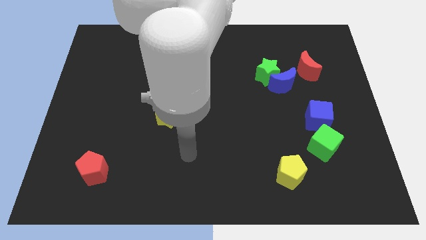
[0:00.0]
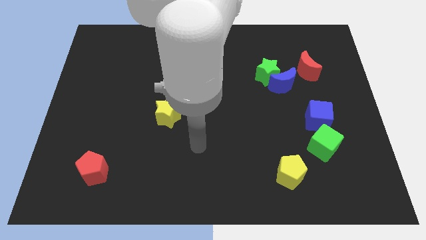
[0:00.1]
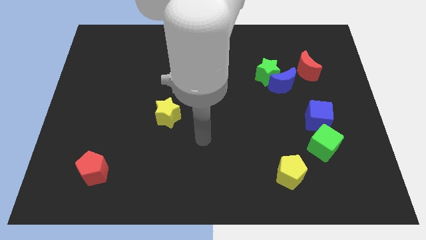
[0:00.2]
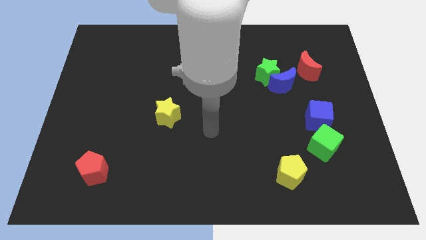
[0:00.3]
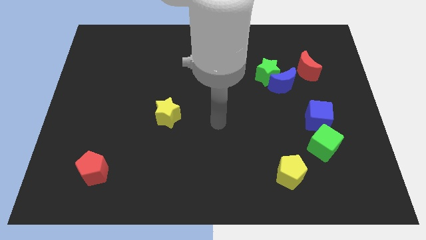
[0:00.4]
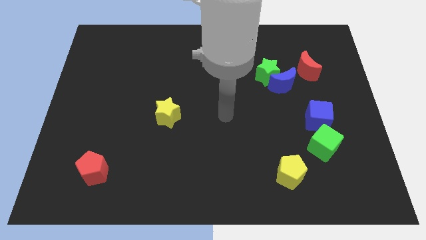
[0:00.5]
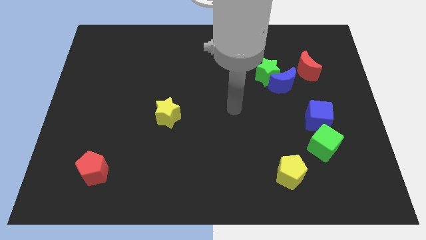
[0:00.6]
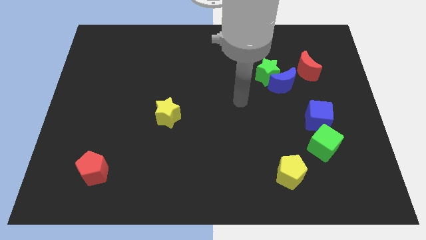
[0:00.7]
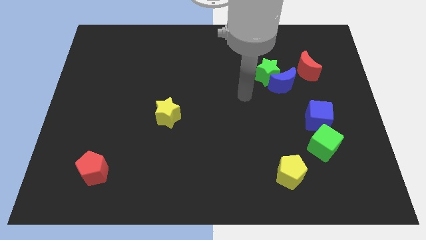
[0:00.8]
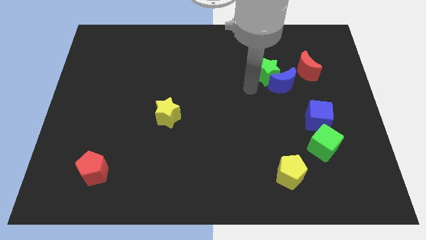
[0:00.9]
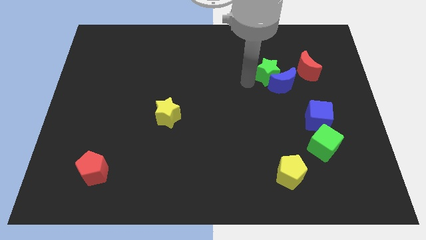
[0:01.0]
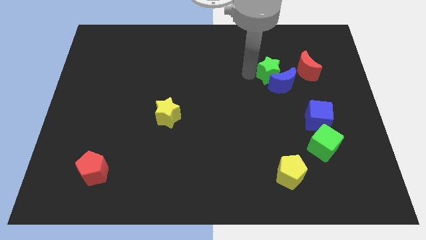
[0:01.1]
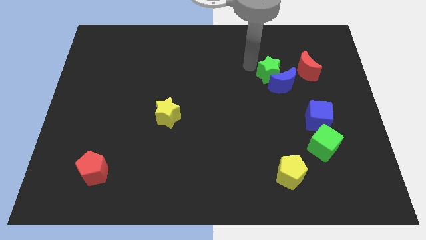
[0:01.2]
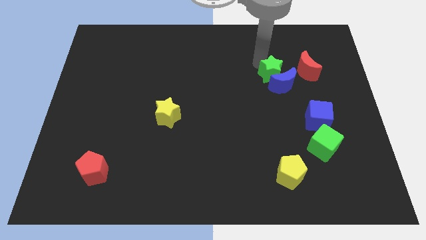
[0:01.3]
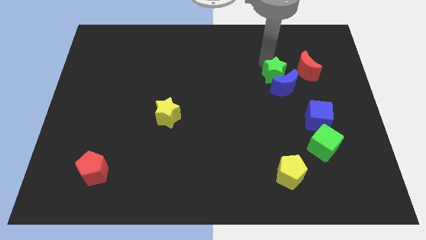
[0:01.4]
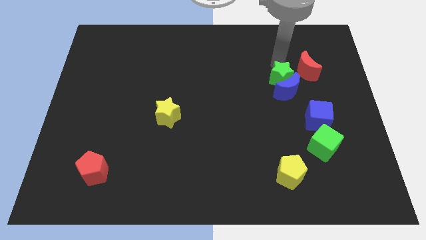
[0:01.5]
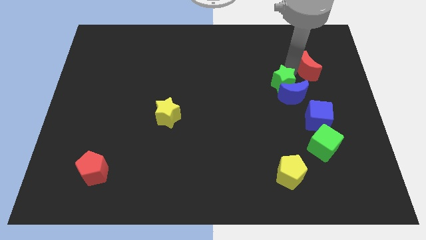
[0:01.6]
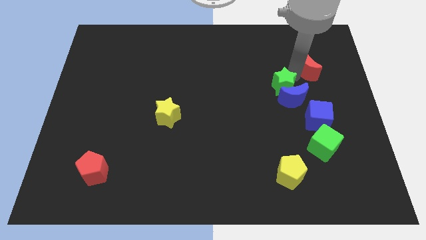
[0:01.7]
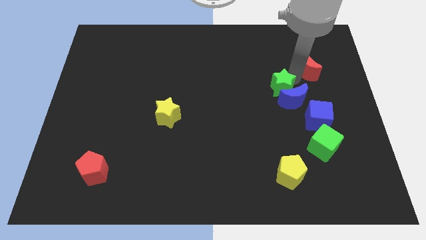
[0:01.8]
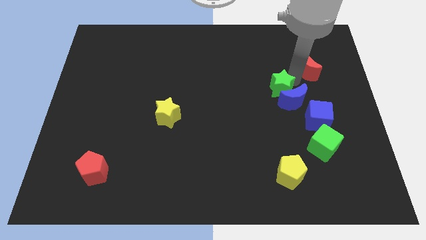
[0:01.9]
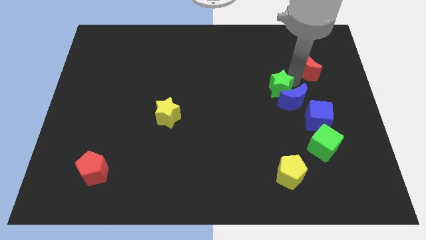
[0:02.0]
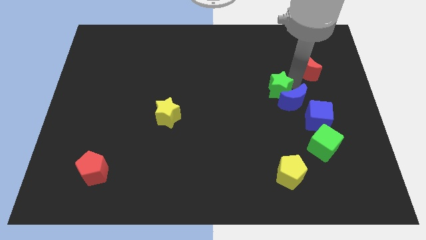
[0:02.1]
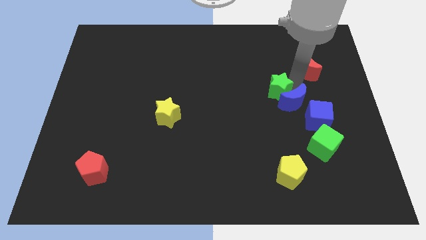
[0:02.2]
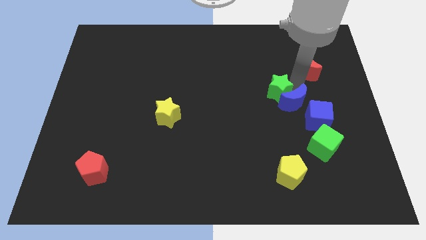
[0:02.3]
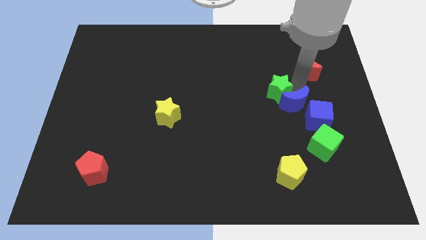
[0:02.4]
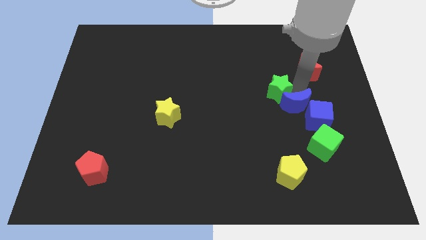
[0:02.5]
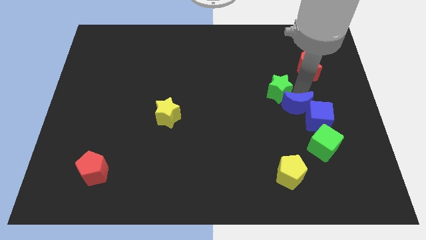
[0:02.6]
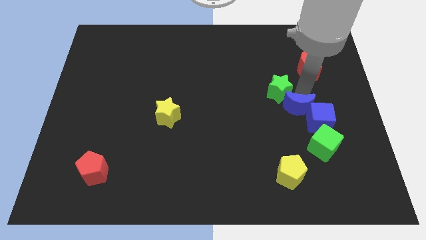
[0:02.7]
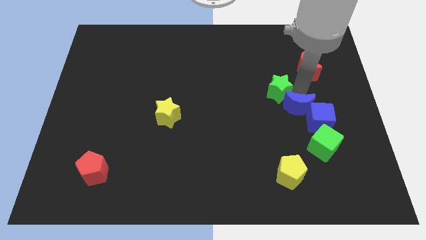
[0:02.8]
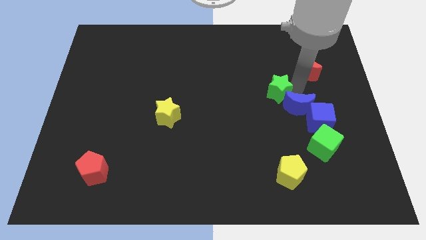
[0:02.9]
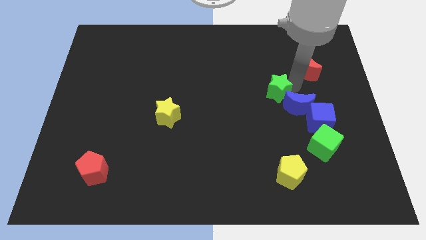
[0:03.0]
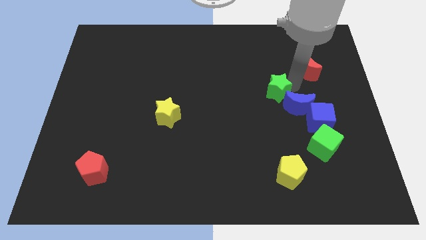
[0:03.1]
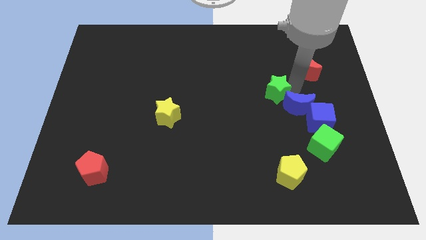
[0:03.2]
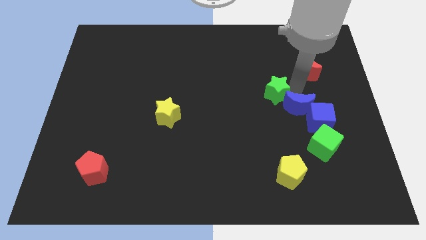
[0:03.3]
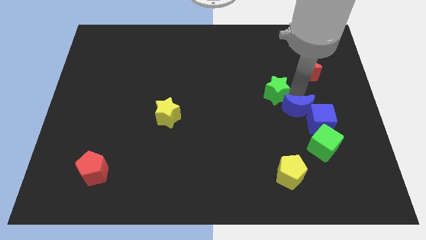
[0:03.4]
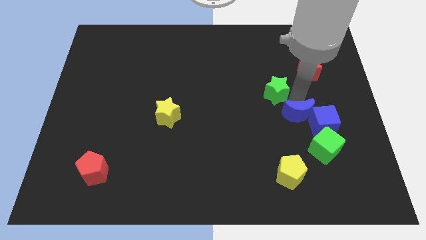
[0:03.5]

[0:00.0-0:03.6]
pull the blue moon apart from the green star and red moon

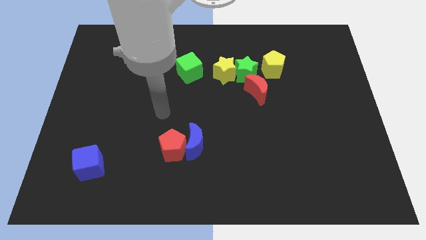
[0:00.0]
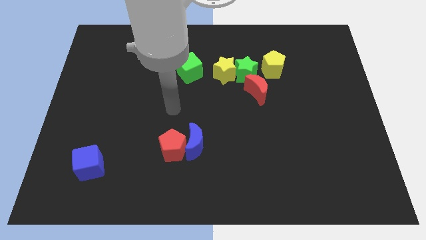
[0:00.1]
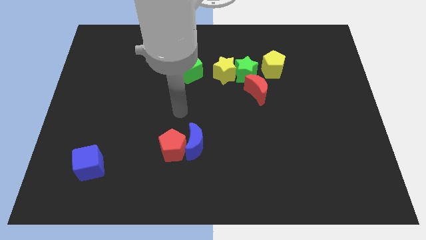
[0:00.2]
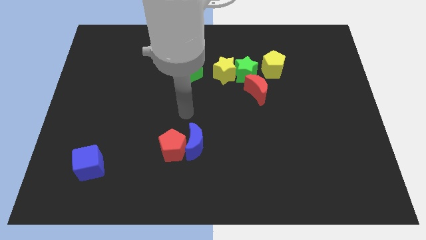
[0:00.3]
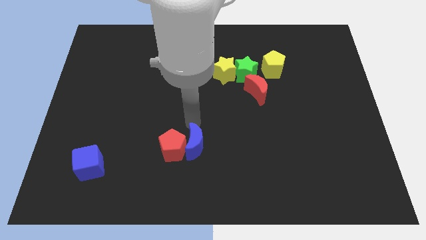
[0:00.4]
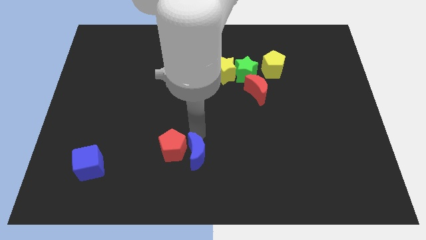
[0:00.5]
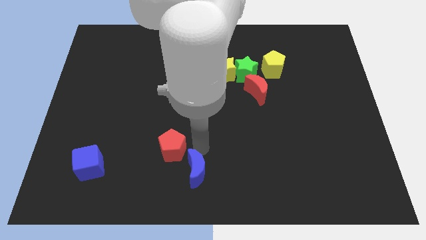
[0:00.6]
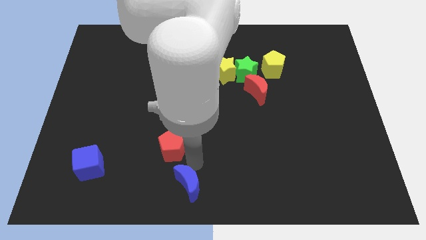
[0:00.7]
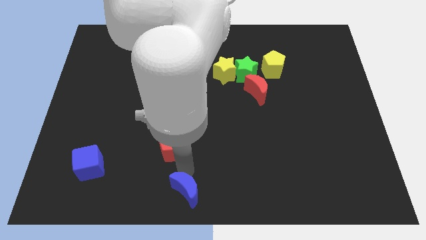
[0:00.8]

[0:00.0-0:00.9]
move the red pentagon away from the blue moon

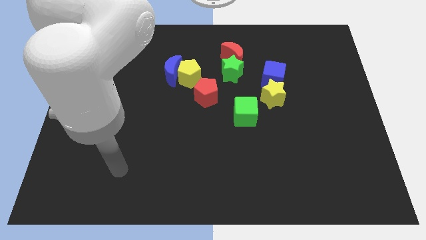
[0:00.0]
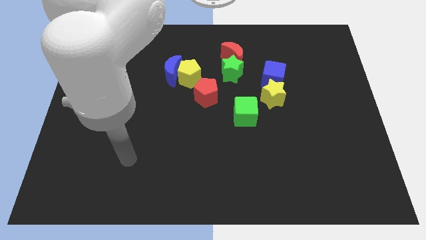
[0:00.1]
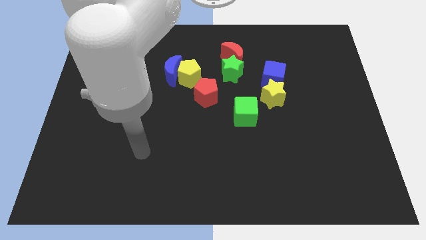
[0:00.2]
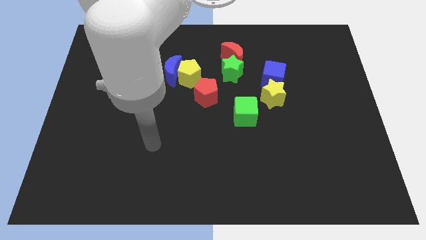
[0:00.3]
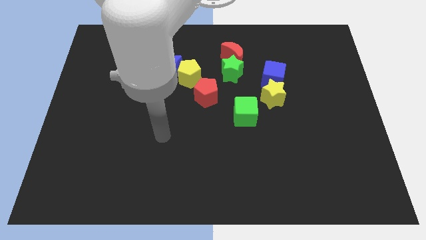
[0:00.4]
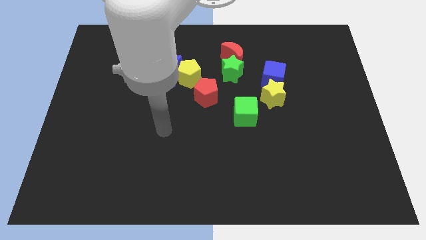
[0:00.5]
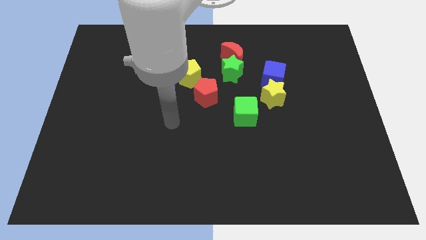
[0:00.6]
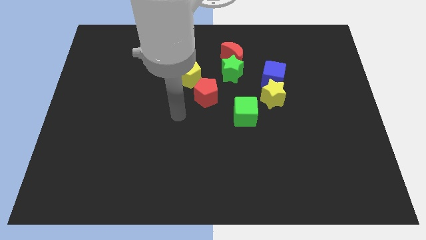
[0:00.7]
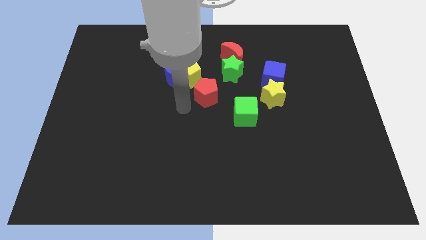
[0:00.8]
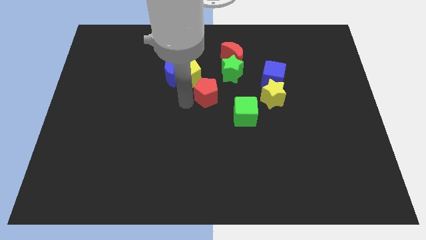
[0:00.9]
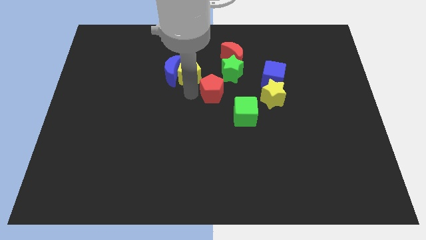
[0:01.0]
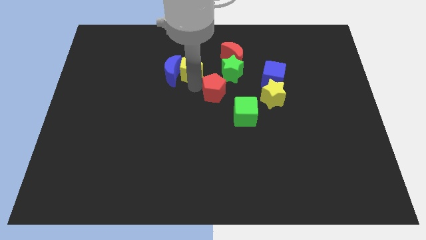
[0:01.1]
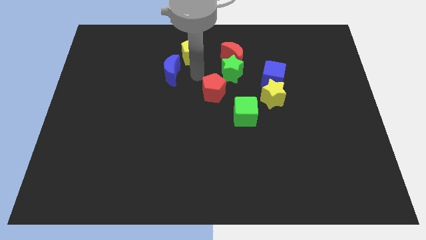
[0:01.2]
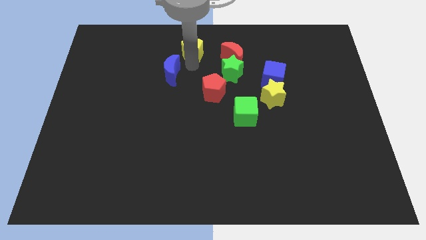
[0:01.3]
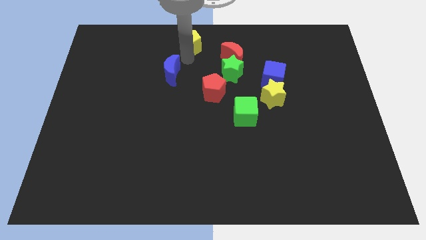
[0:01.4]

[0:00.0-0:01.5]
move the blue moon away from the yellow pentagon

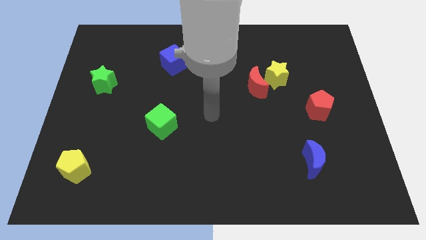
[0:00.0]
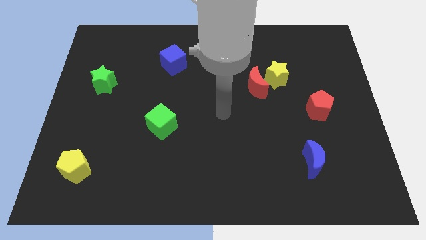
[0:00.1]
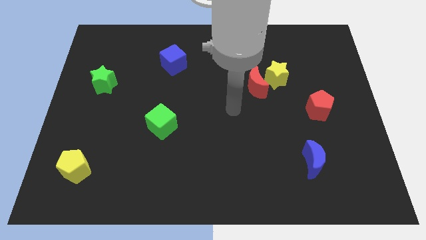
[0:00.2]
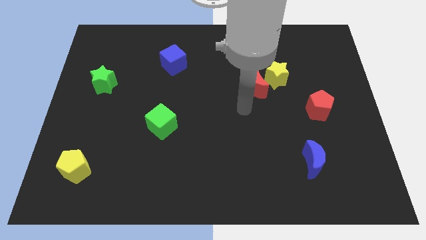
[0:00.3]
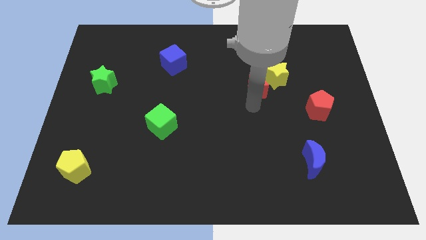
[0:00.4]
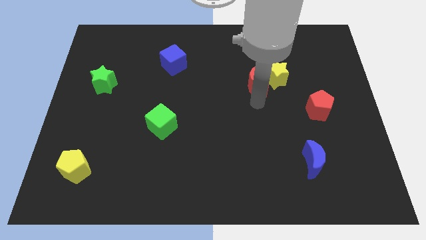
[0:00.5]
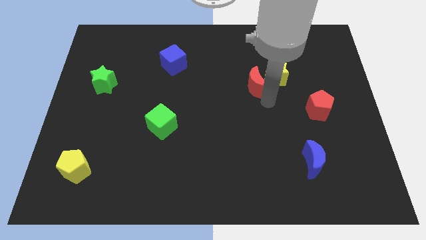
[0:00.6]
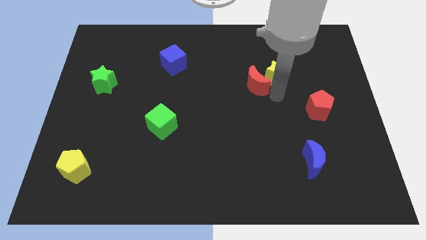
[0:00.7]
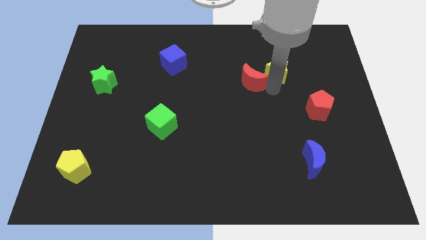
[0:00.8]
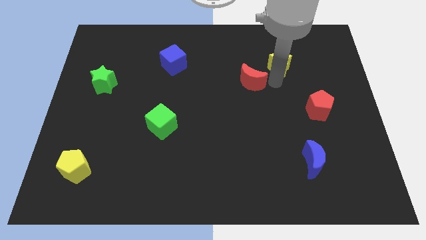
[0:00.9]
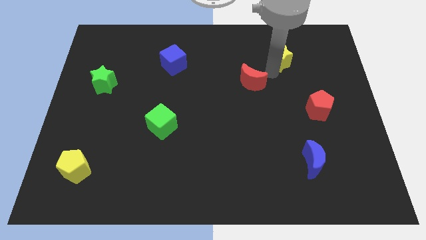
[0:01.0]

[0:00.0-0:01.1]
move the red moon away from the yellow star

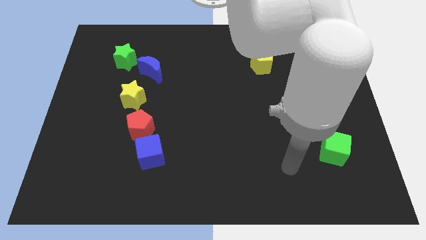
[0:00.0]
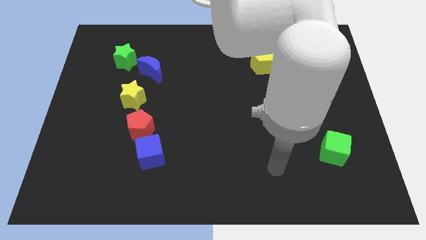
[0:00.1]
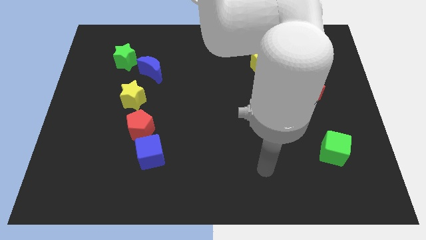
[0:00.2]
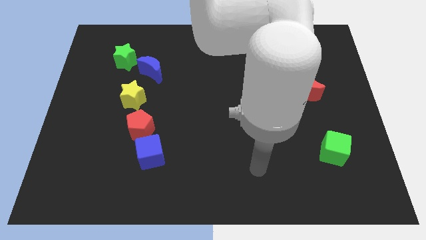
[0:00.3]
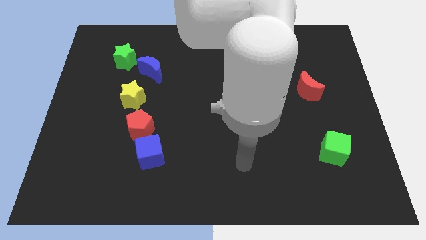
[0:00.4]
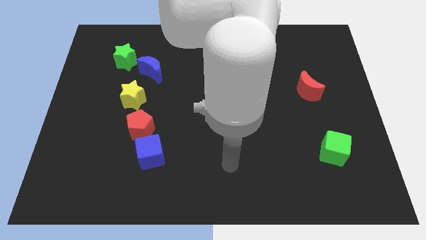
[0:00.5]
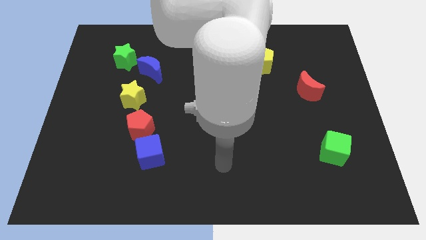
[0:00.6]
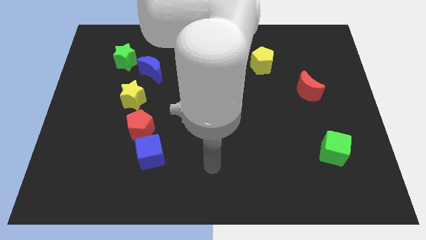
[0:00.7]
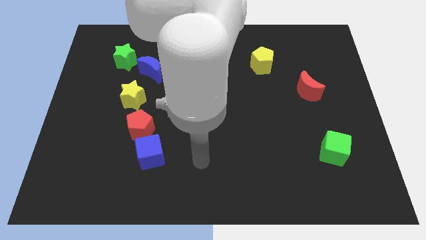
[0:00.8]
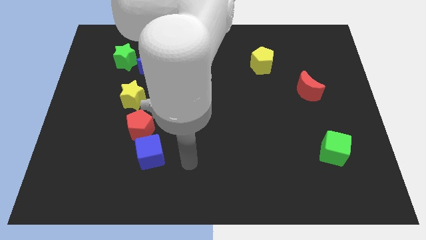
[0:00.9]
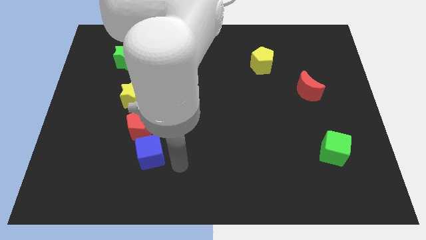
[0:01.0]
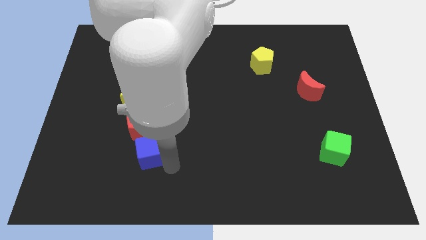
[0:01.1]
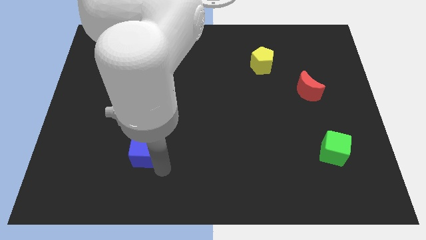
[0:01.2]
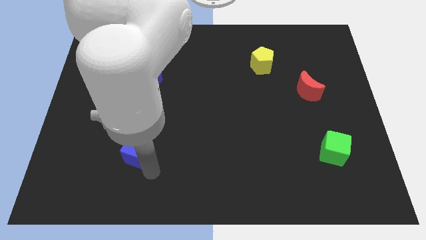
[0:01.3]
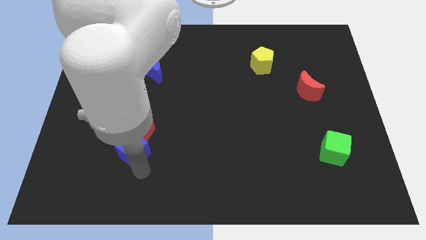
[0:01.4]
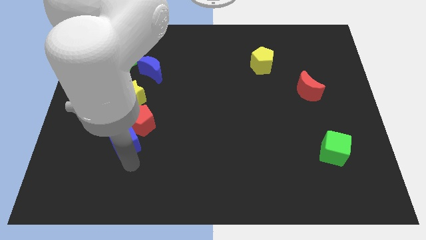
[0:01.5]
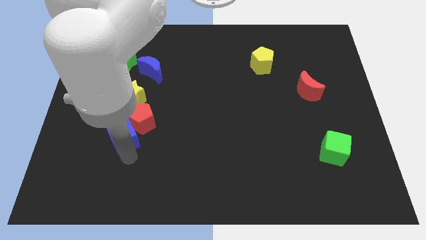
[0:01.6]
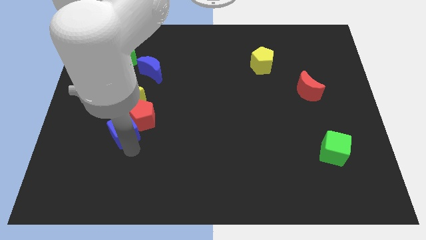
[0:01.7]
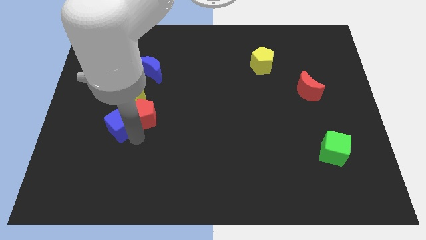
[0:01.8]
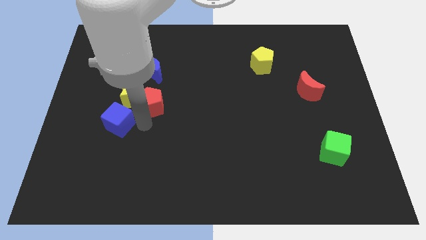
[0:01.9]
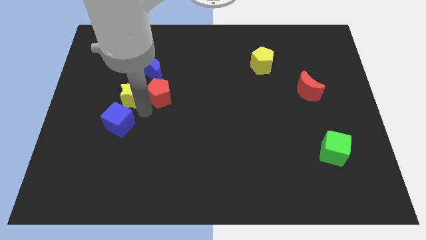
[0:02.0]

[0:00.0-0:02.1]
pull the blue cube apart from the red pentagon
